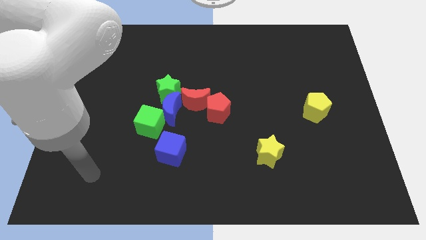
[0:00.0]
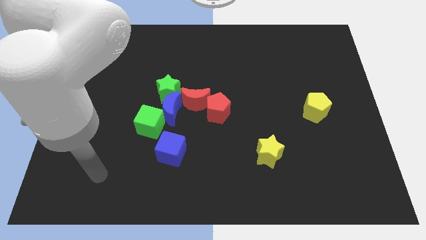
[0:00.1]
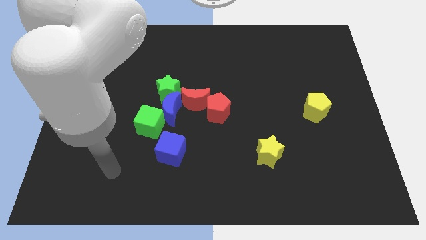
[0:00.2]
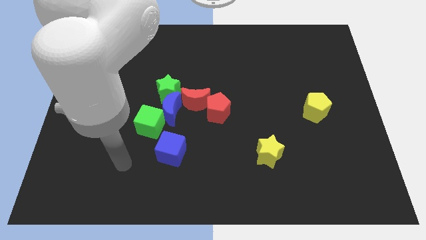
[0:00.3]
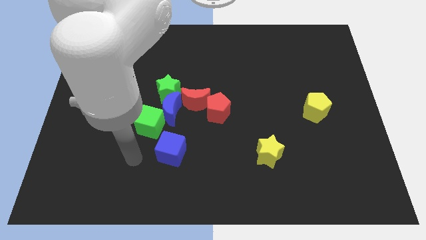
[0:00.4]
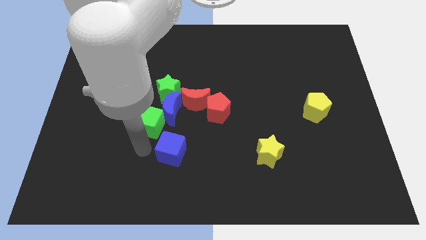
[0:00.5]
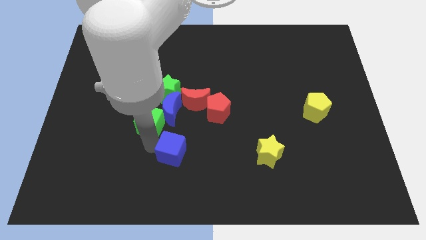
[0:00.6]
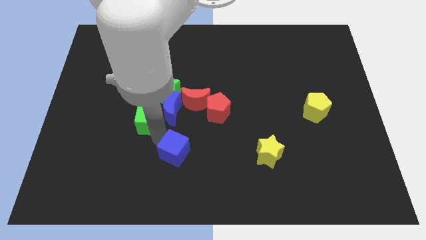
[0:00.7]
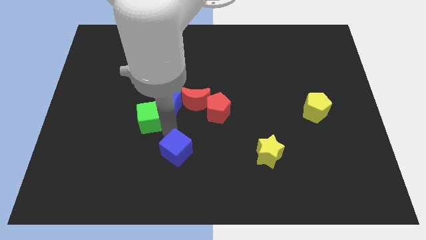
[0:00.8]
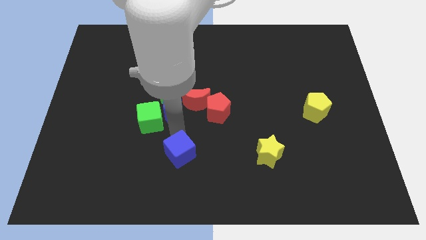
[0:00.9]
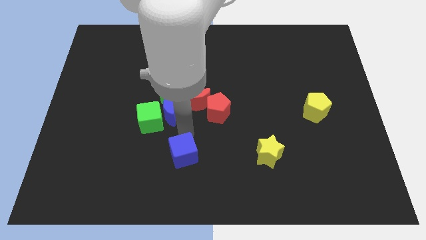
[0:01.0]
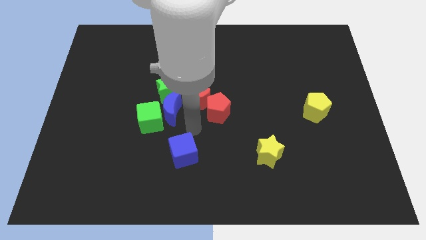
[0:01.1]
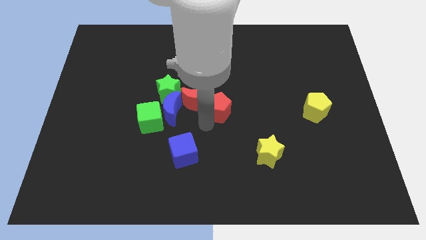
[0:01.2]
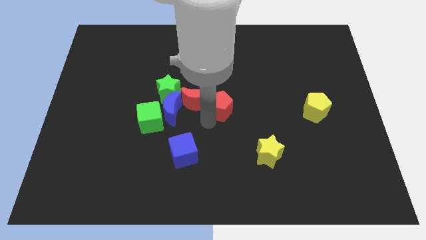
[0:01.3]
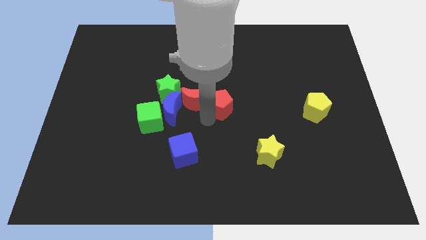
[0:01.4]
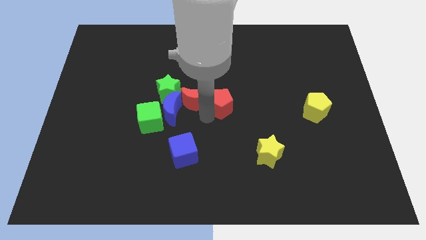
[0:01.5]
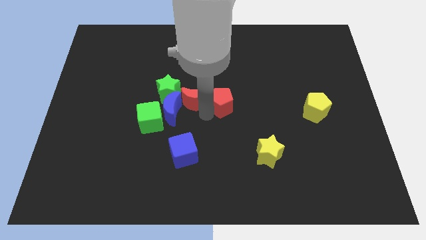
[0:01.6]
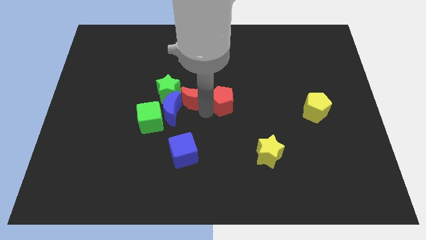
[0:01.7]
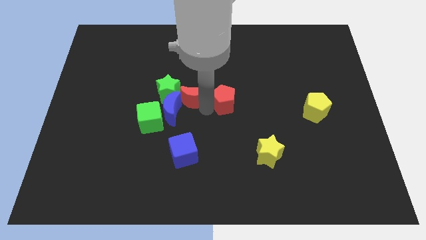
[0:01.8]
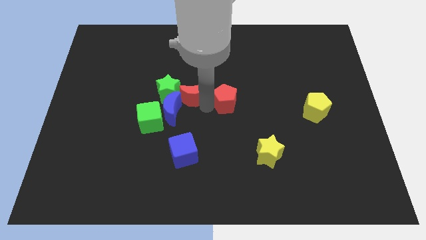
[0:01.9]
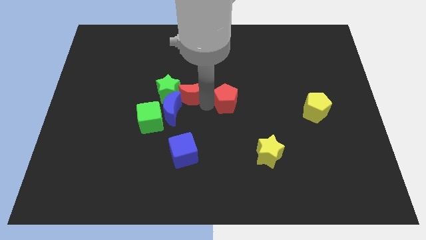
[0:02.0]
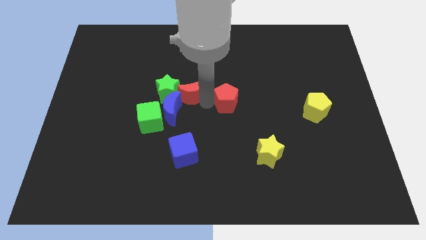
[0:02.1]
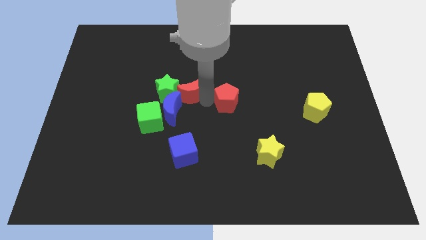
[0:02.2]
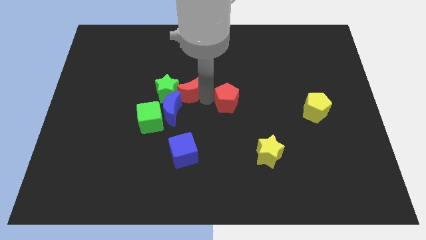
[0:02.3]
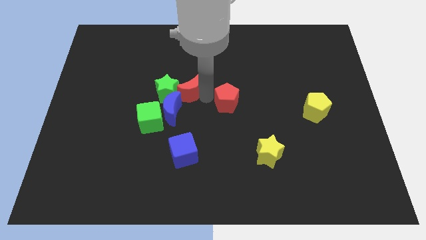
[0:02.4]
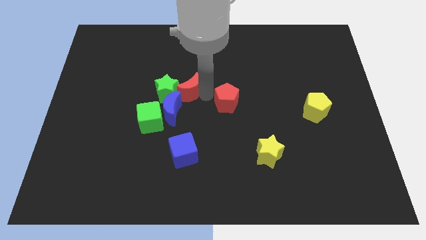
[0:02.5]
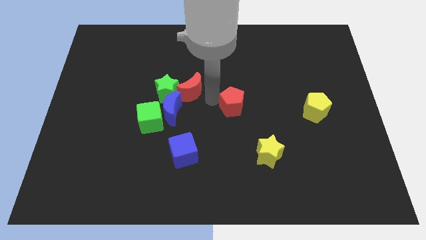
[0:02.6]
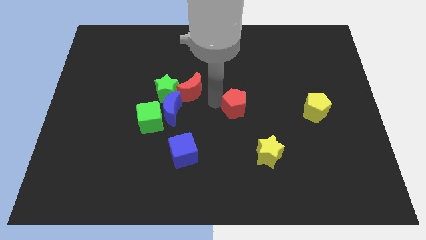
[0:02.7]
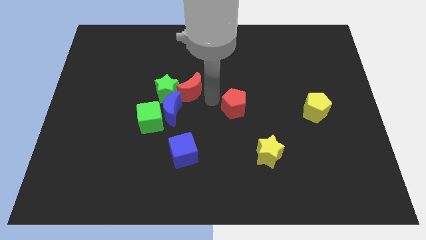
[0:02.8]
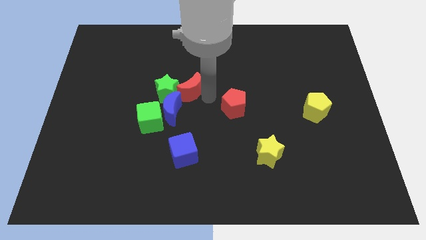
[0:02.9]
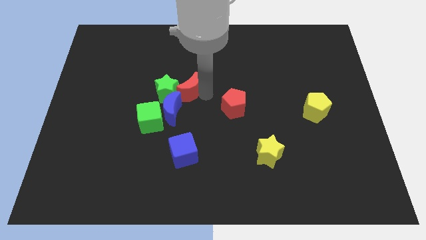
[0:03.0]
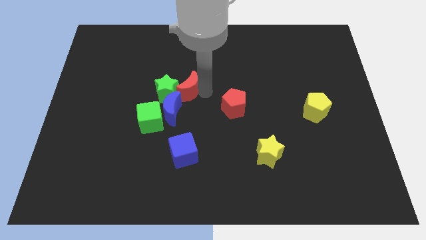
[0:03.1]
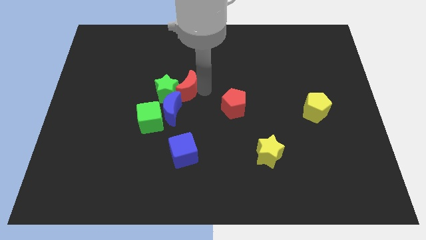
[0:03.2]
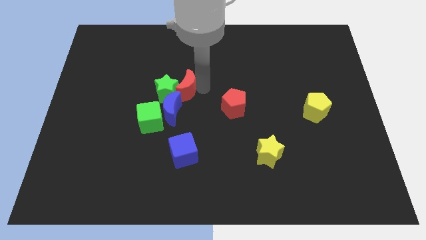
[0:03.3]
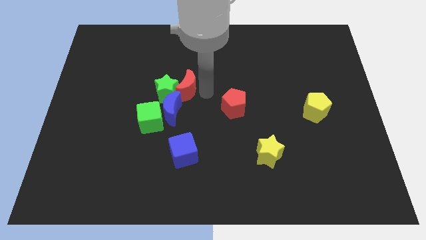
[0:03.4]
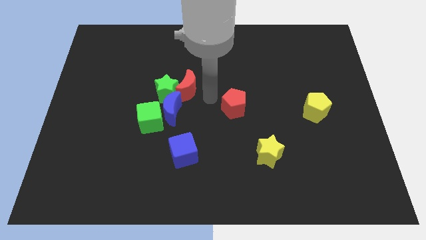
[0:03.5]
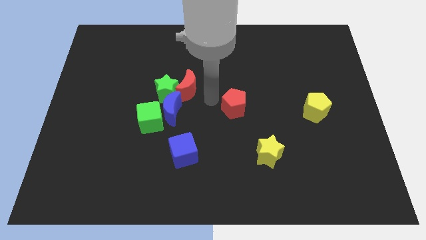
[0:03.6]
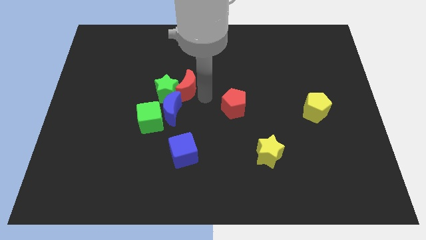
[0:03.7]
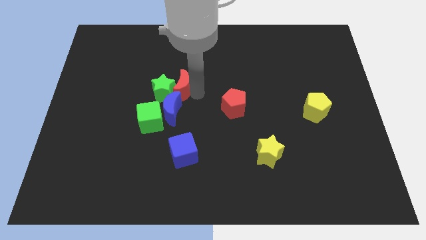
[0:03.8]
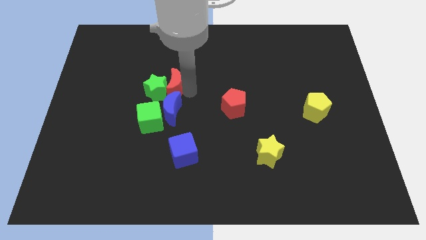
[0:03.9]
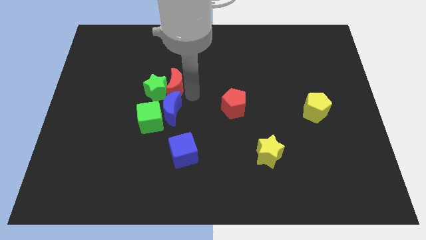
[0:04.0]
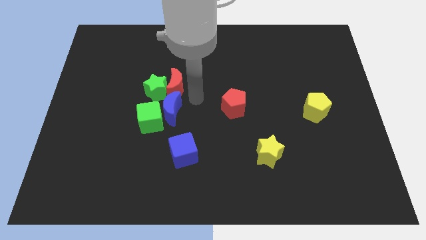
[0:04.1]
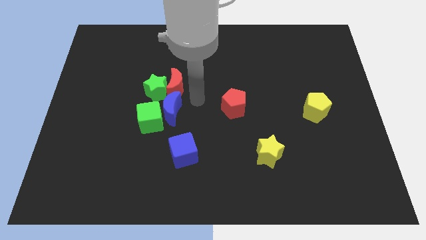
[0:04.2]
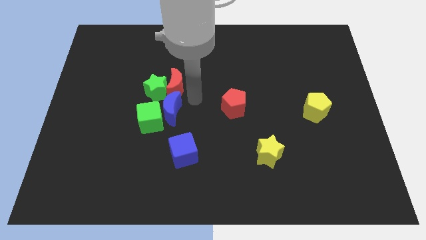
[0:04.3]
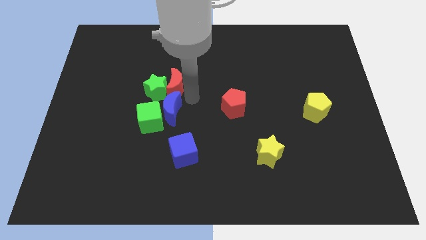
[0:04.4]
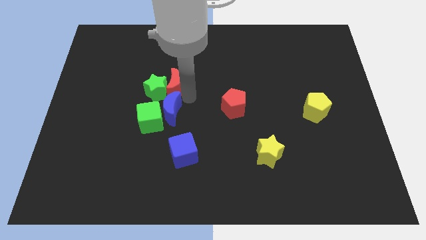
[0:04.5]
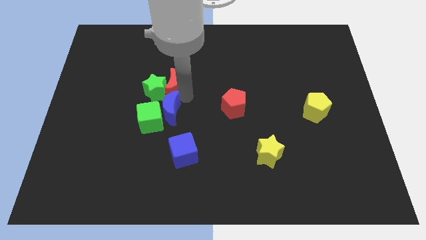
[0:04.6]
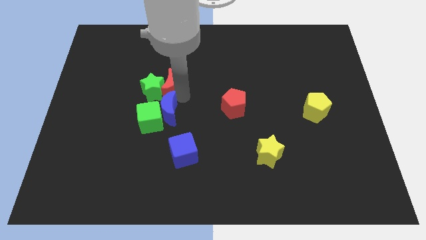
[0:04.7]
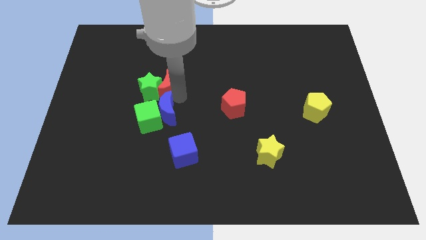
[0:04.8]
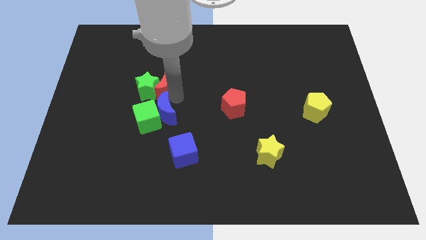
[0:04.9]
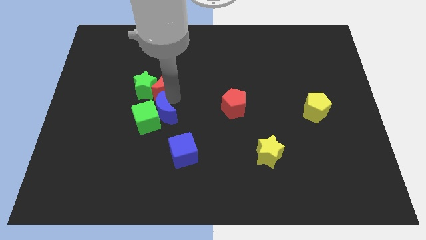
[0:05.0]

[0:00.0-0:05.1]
move the red moon somewhat to the left

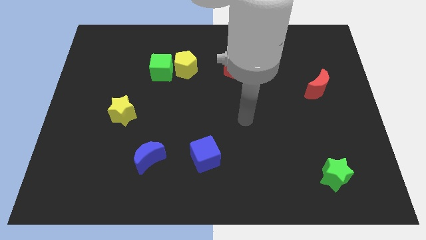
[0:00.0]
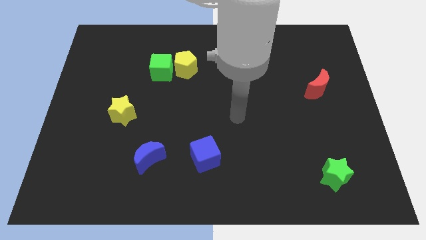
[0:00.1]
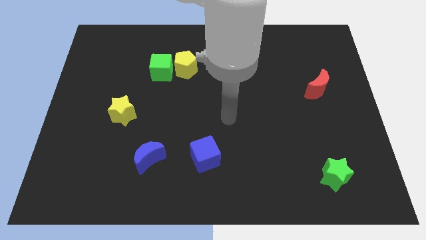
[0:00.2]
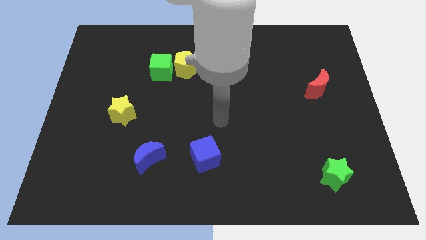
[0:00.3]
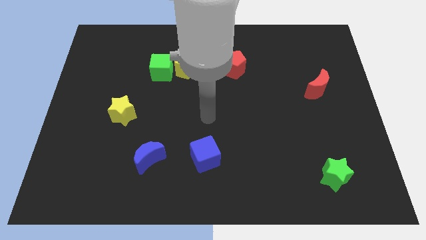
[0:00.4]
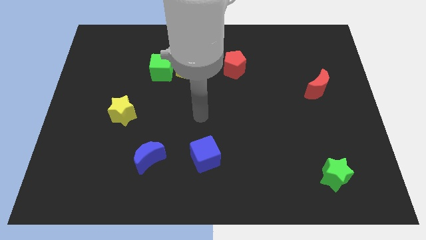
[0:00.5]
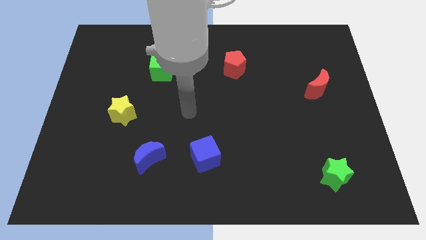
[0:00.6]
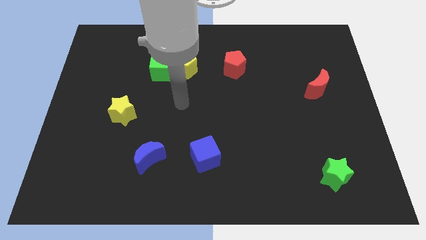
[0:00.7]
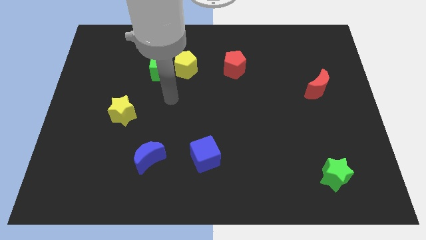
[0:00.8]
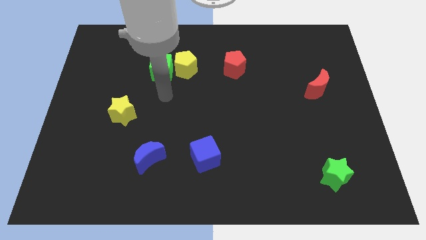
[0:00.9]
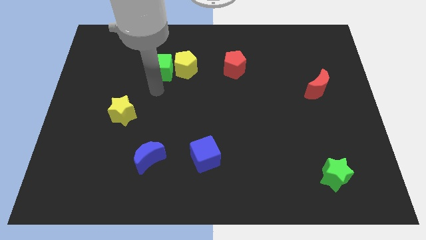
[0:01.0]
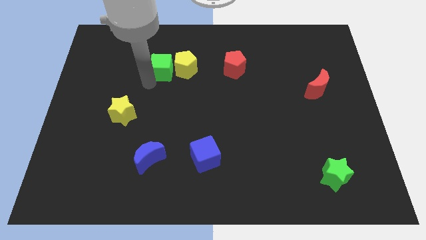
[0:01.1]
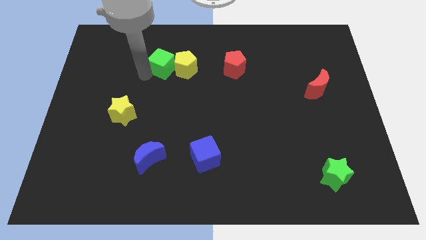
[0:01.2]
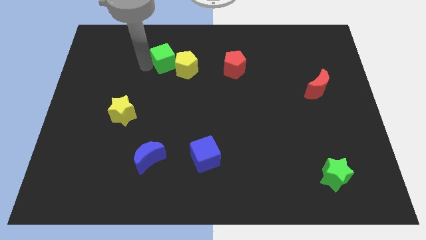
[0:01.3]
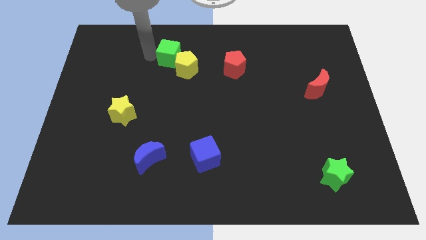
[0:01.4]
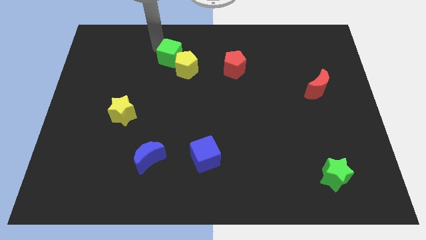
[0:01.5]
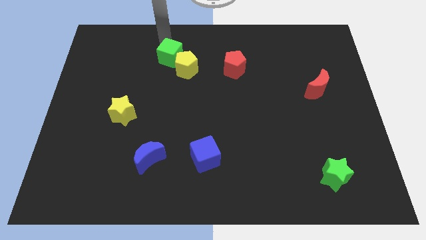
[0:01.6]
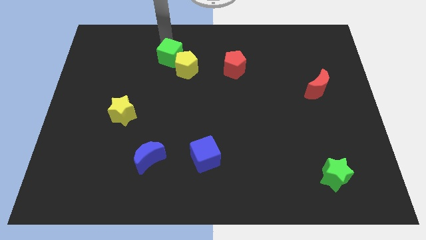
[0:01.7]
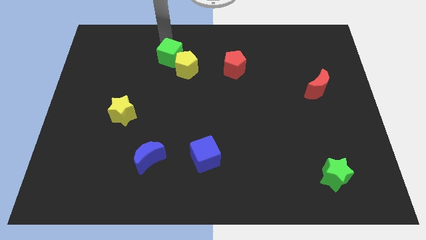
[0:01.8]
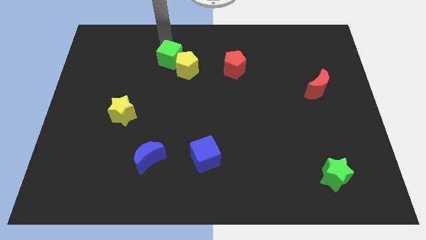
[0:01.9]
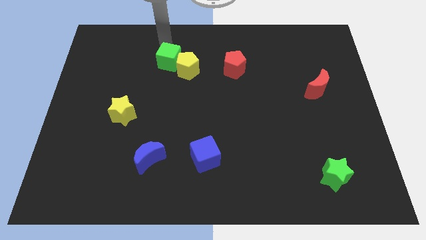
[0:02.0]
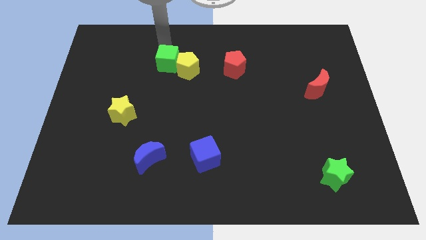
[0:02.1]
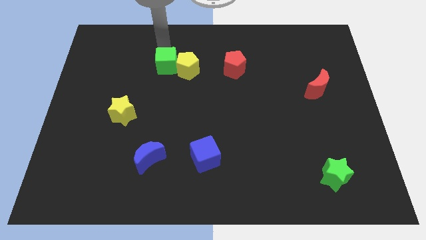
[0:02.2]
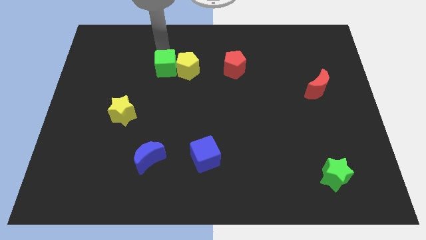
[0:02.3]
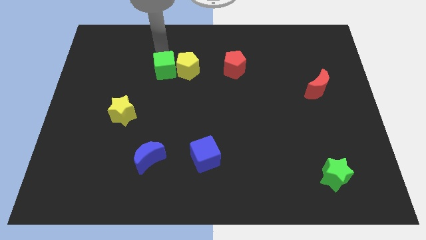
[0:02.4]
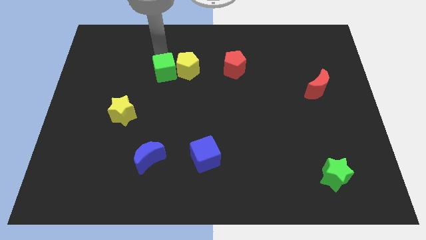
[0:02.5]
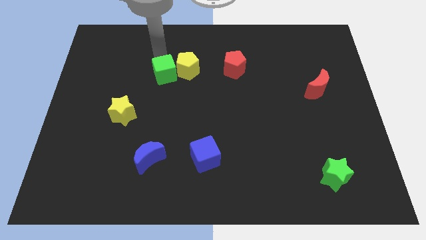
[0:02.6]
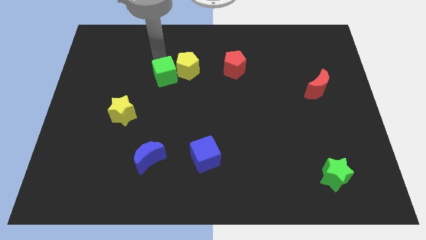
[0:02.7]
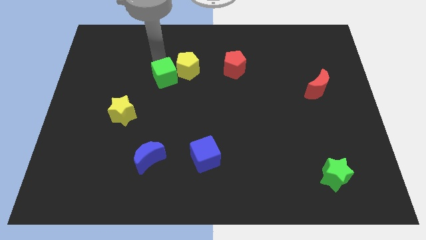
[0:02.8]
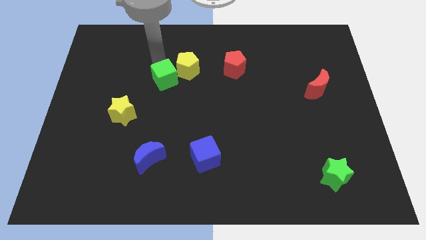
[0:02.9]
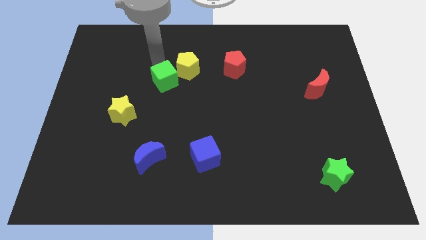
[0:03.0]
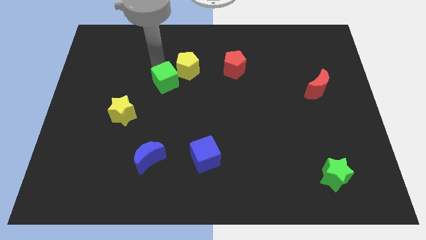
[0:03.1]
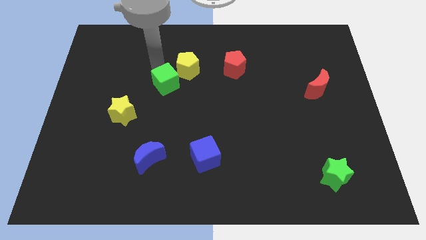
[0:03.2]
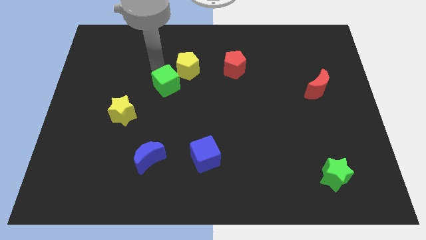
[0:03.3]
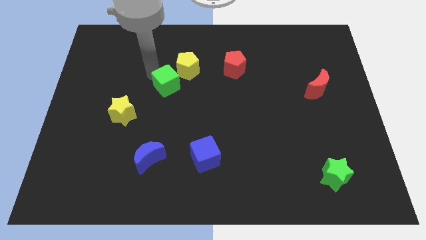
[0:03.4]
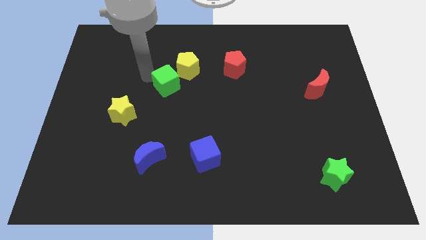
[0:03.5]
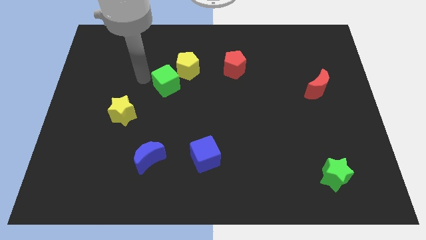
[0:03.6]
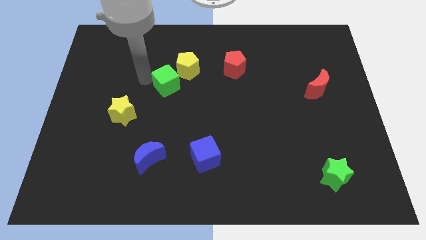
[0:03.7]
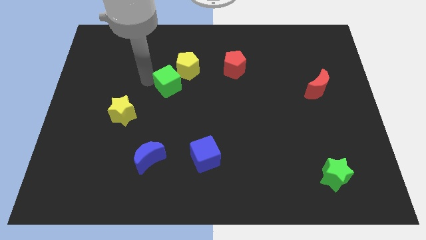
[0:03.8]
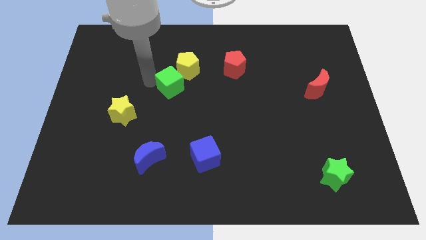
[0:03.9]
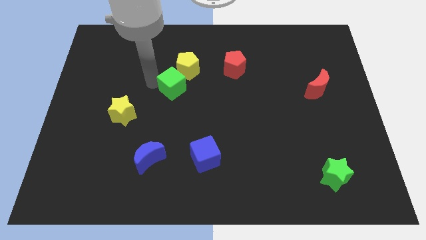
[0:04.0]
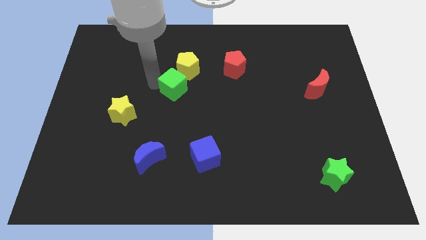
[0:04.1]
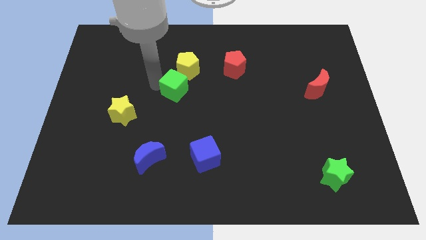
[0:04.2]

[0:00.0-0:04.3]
move the green cube a little down and to the right
